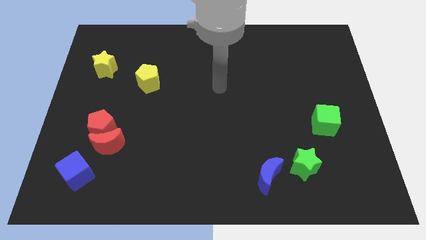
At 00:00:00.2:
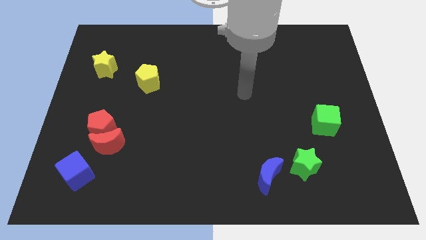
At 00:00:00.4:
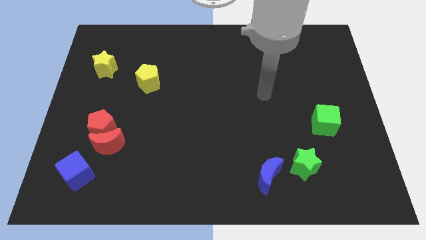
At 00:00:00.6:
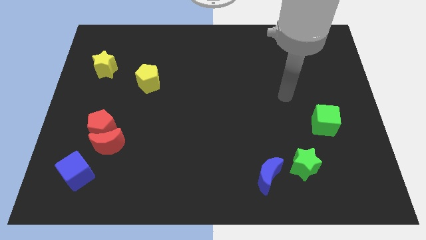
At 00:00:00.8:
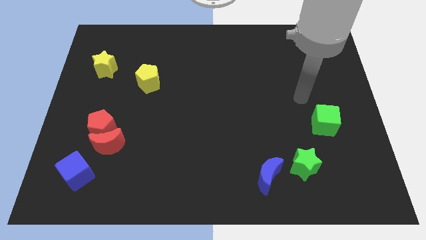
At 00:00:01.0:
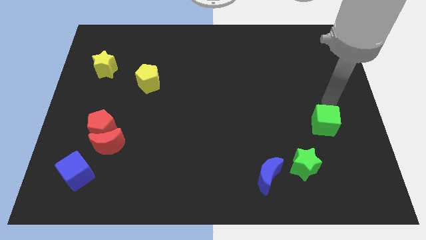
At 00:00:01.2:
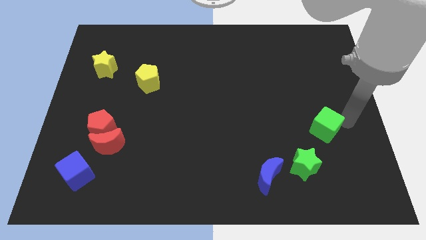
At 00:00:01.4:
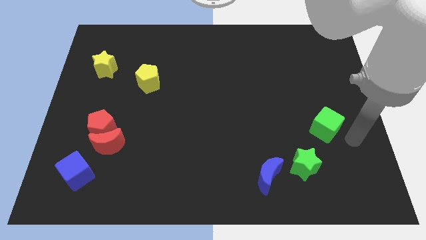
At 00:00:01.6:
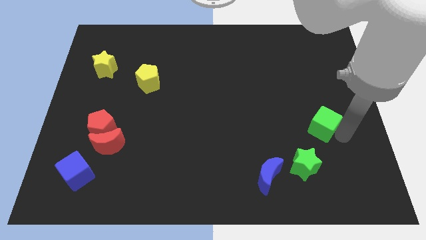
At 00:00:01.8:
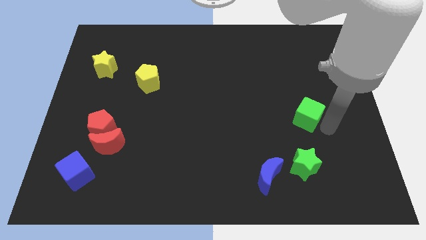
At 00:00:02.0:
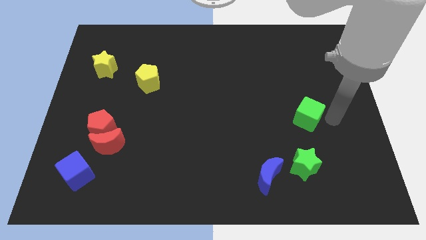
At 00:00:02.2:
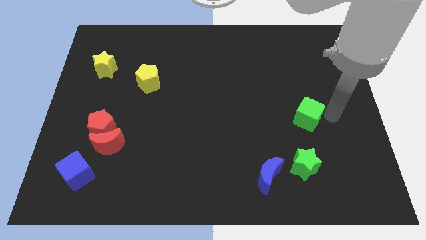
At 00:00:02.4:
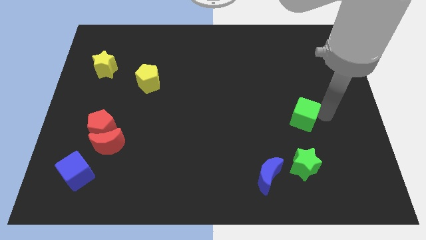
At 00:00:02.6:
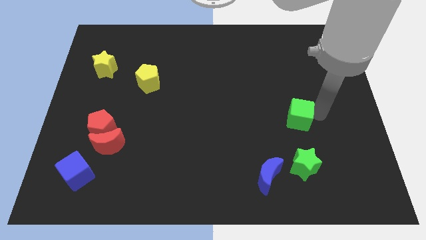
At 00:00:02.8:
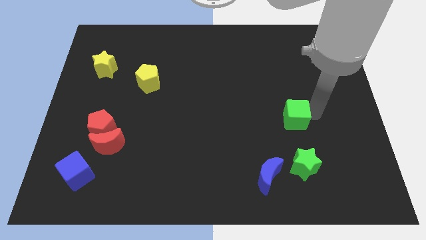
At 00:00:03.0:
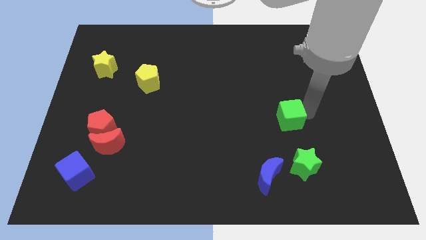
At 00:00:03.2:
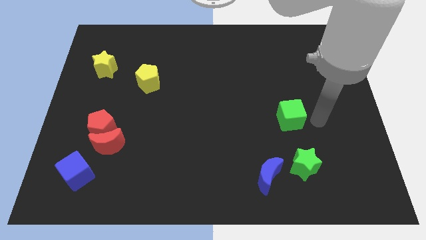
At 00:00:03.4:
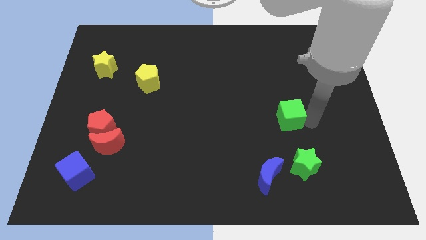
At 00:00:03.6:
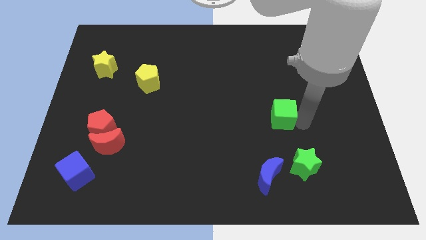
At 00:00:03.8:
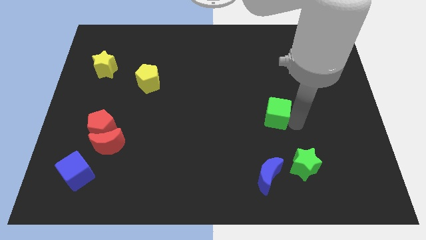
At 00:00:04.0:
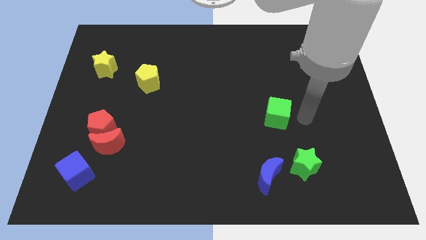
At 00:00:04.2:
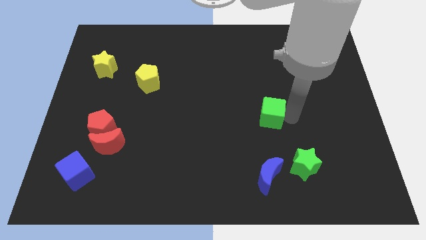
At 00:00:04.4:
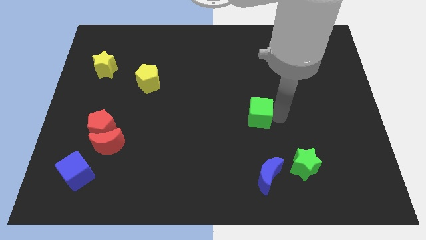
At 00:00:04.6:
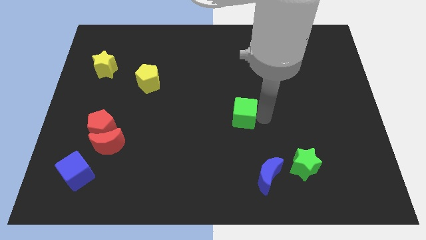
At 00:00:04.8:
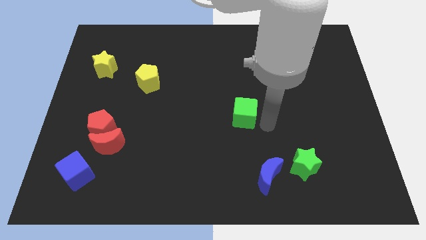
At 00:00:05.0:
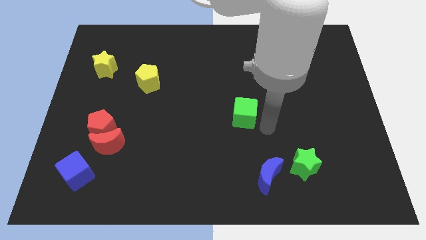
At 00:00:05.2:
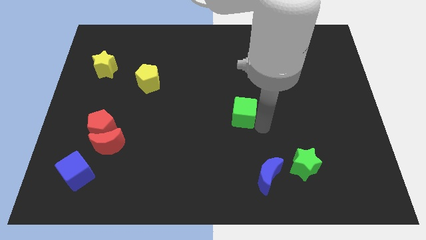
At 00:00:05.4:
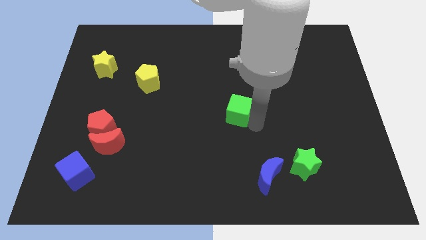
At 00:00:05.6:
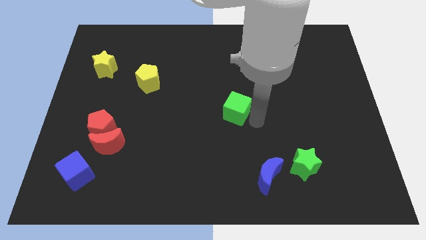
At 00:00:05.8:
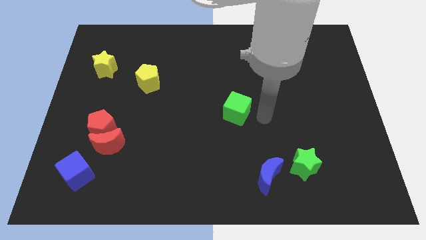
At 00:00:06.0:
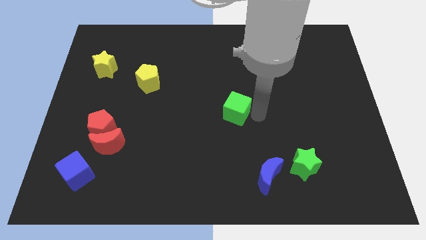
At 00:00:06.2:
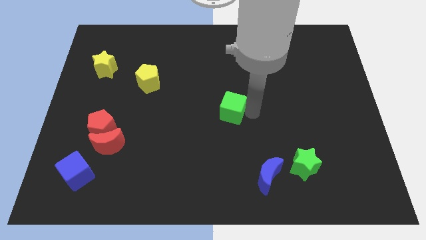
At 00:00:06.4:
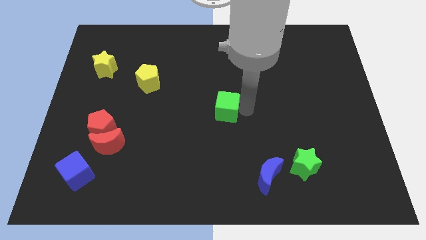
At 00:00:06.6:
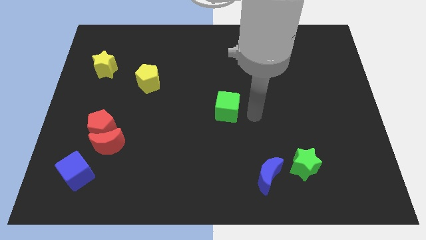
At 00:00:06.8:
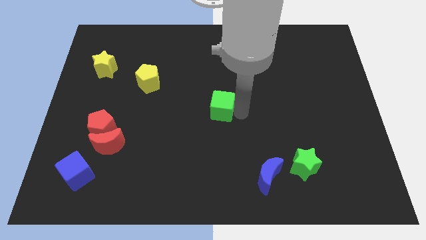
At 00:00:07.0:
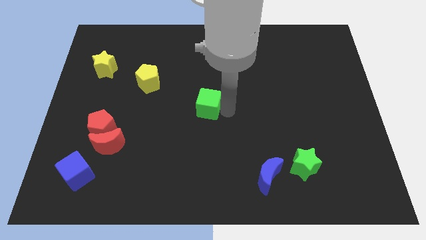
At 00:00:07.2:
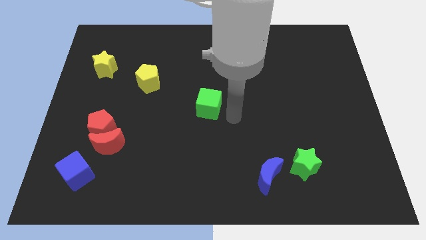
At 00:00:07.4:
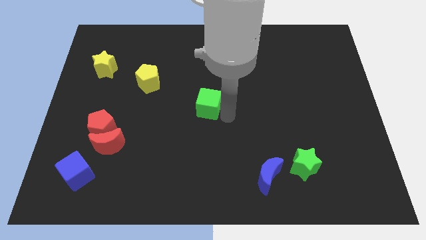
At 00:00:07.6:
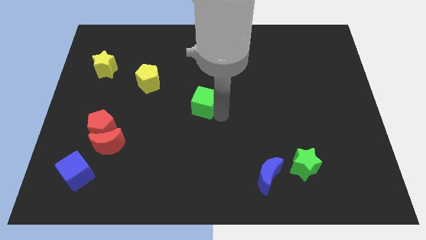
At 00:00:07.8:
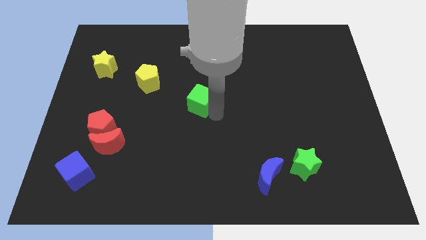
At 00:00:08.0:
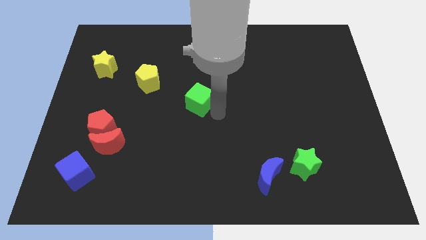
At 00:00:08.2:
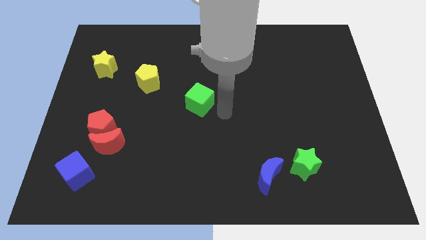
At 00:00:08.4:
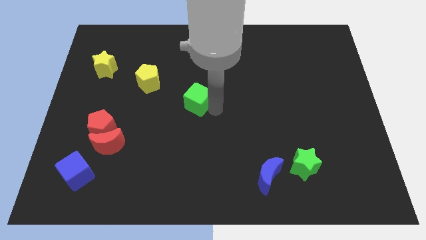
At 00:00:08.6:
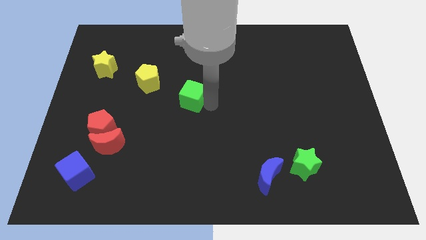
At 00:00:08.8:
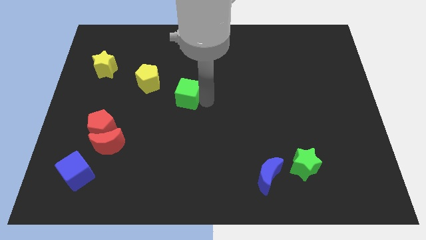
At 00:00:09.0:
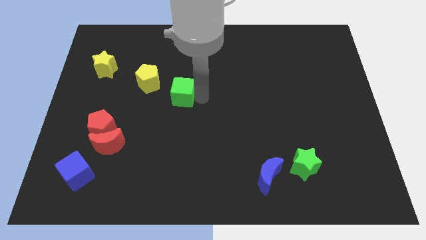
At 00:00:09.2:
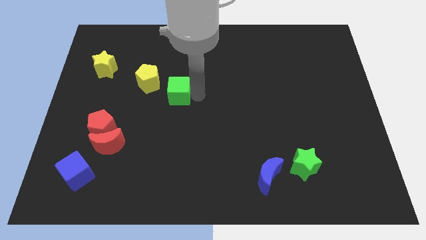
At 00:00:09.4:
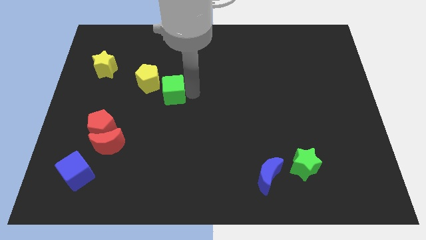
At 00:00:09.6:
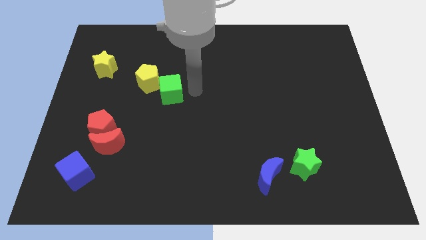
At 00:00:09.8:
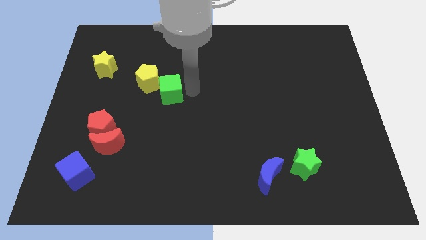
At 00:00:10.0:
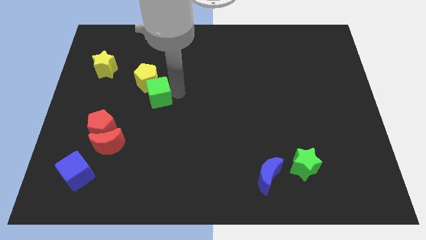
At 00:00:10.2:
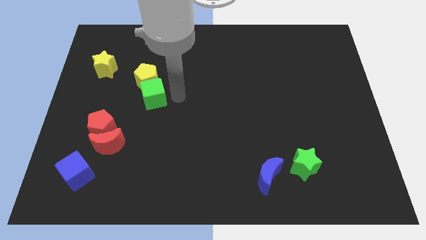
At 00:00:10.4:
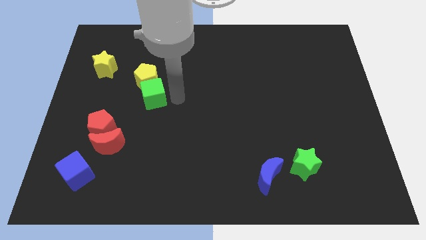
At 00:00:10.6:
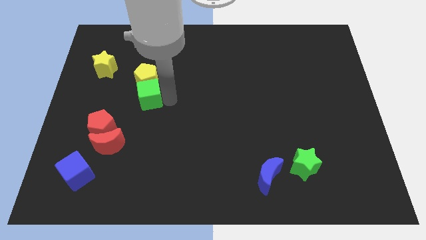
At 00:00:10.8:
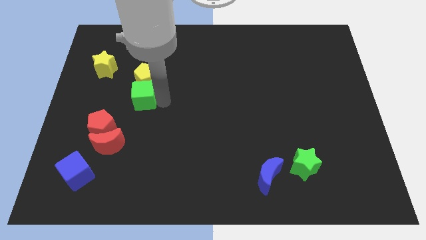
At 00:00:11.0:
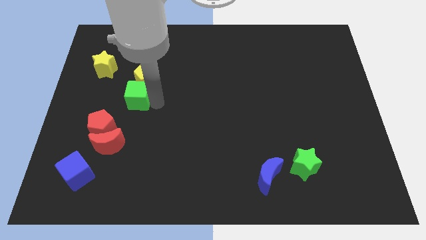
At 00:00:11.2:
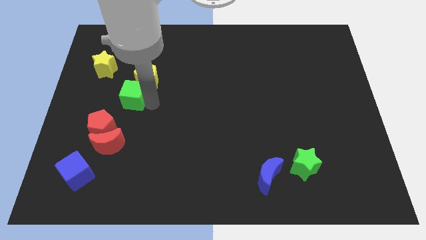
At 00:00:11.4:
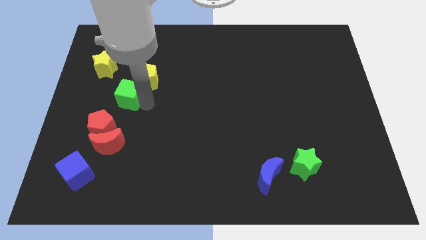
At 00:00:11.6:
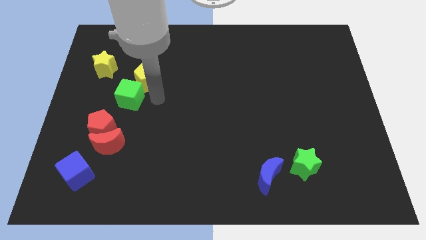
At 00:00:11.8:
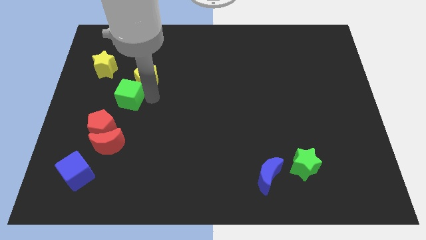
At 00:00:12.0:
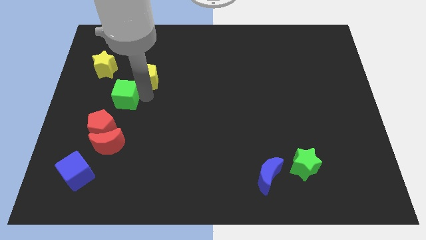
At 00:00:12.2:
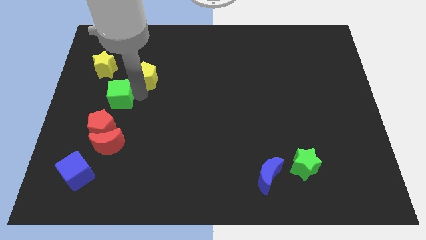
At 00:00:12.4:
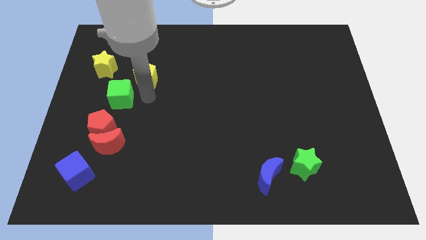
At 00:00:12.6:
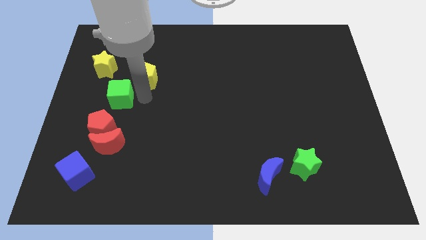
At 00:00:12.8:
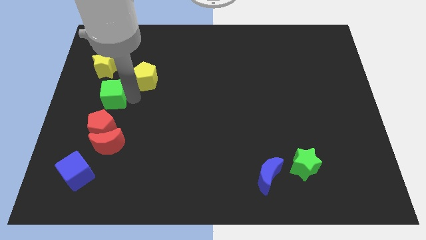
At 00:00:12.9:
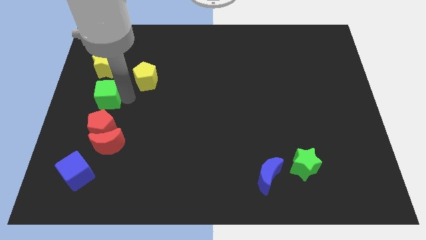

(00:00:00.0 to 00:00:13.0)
move the green cube to the left side of the board
